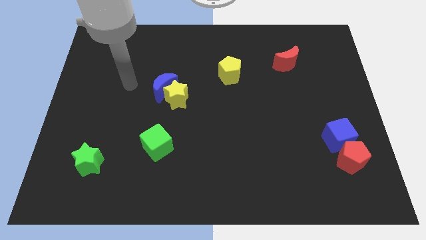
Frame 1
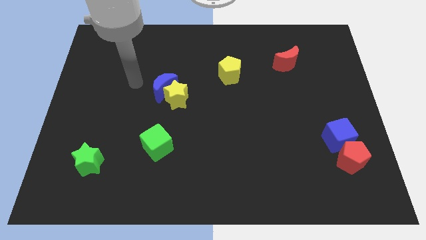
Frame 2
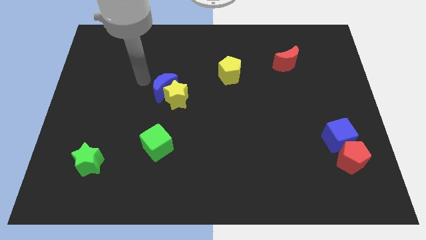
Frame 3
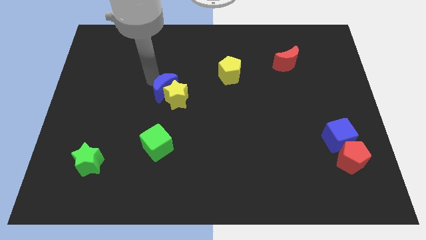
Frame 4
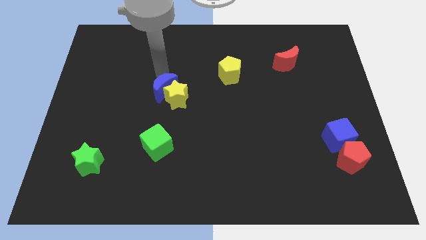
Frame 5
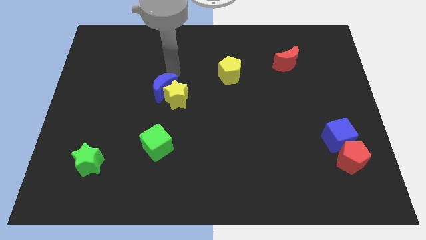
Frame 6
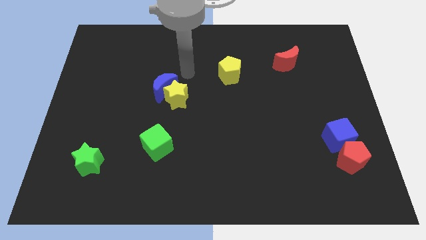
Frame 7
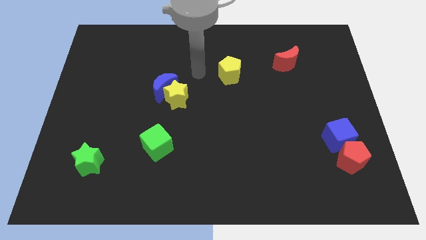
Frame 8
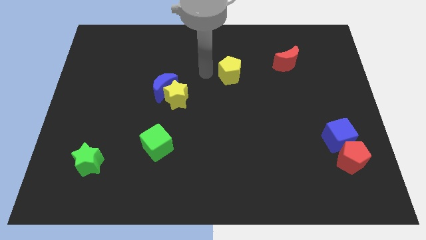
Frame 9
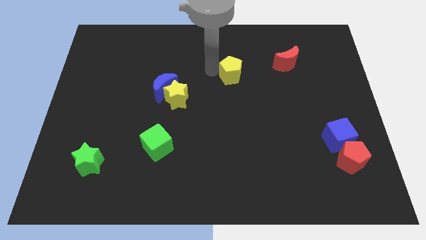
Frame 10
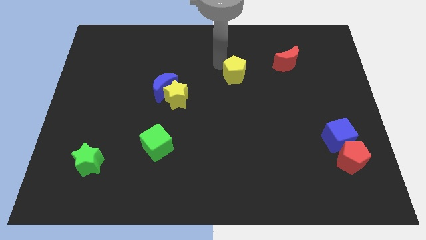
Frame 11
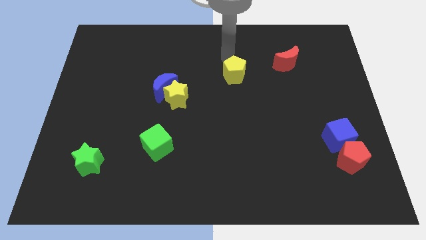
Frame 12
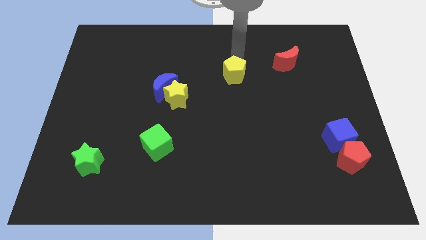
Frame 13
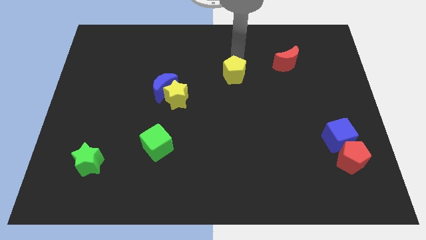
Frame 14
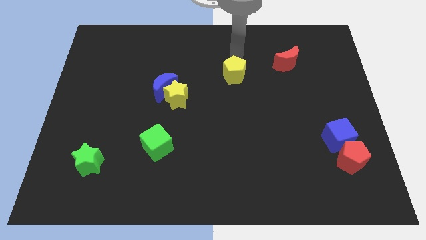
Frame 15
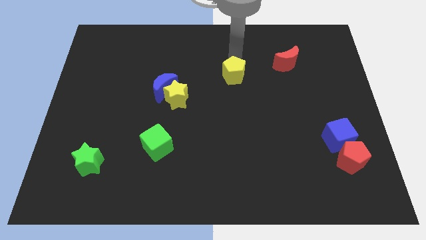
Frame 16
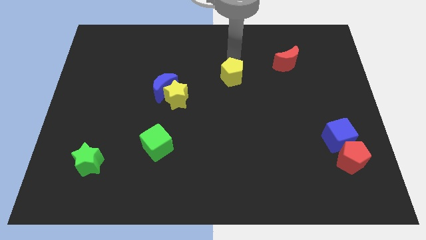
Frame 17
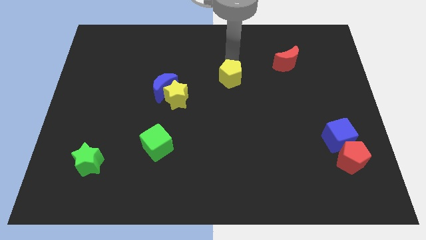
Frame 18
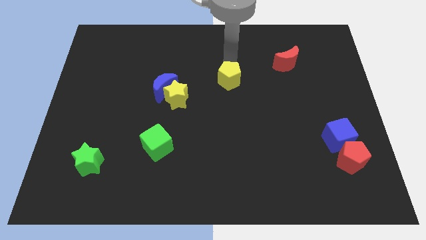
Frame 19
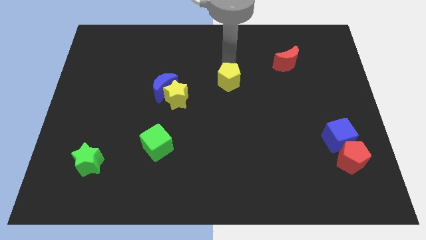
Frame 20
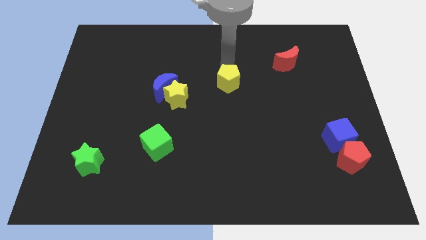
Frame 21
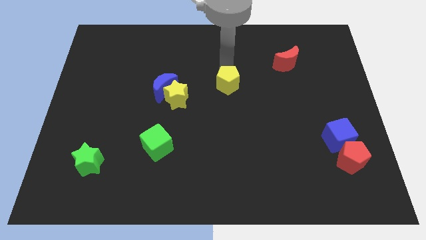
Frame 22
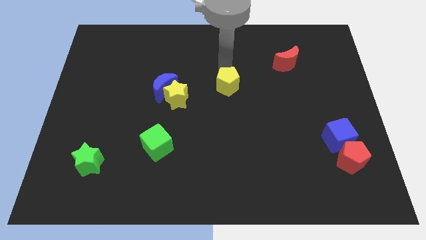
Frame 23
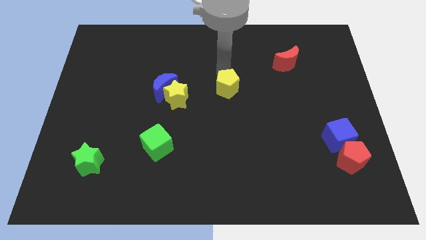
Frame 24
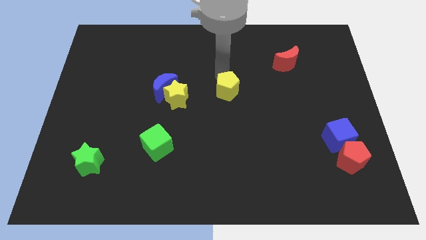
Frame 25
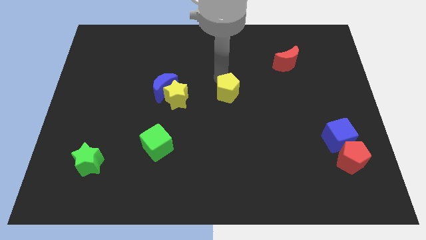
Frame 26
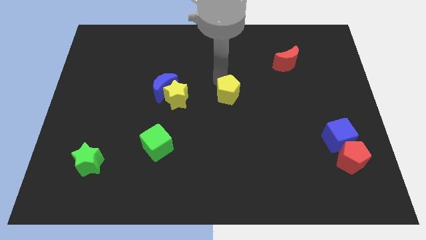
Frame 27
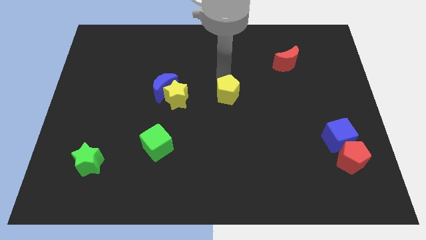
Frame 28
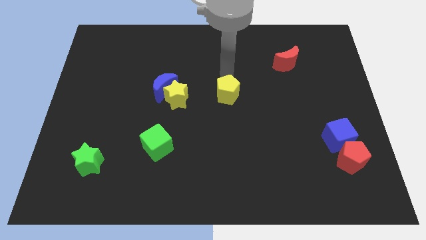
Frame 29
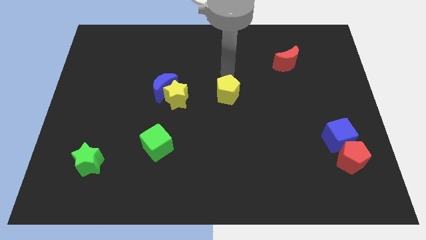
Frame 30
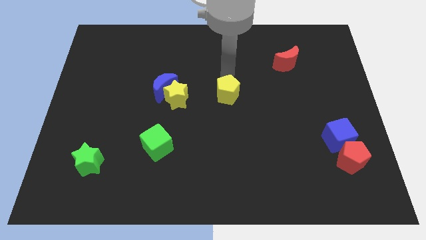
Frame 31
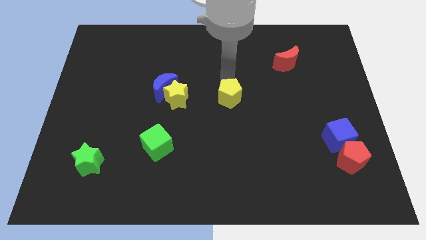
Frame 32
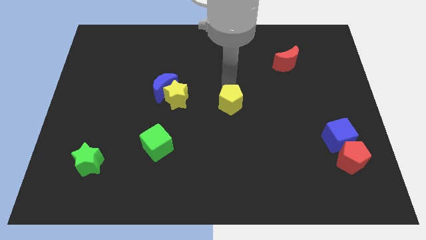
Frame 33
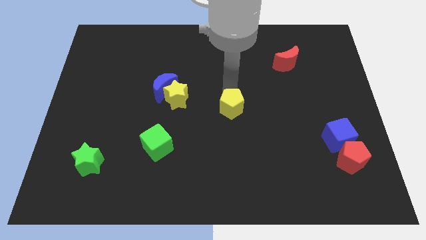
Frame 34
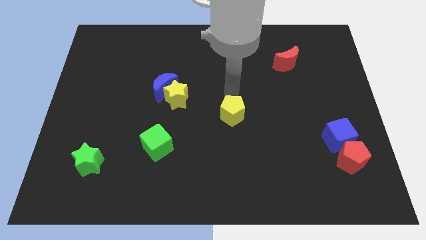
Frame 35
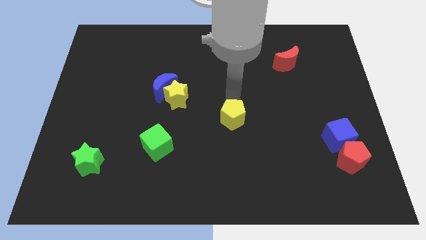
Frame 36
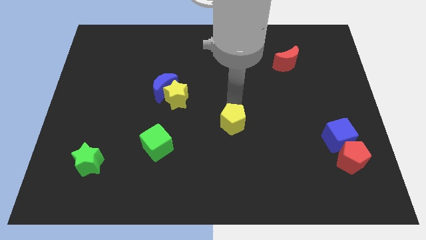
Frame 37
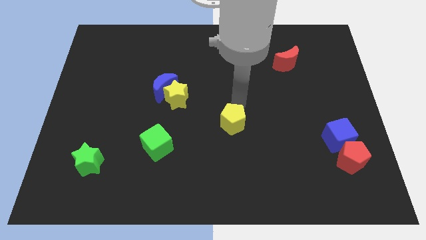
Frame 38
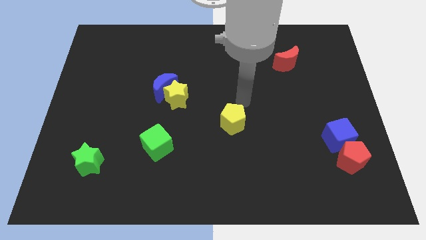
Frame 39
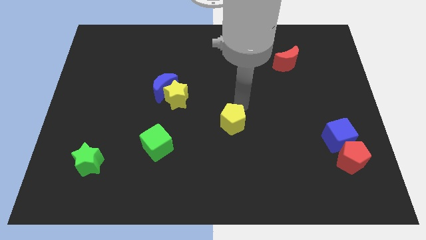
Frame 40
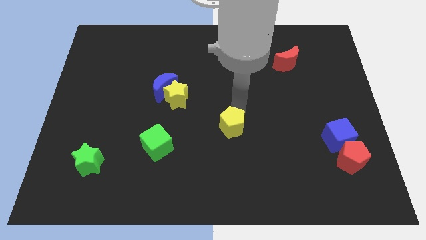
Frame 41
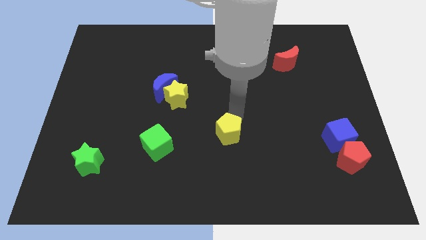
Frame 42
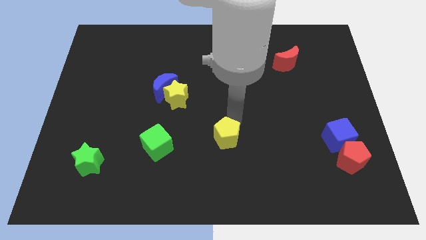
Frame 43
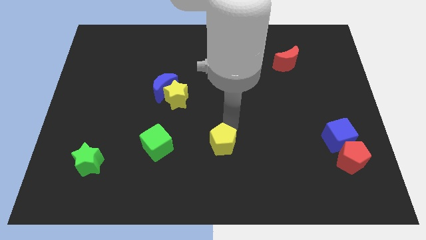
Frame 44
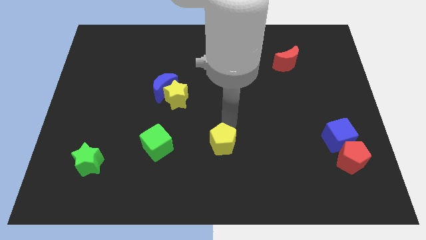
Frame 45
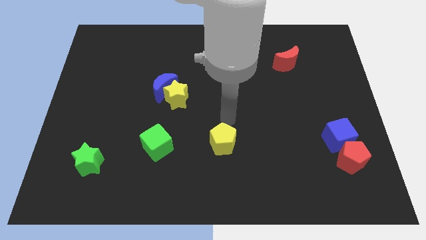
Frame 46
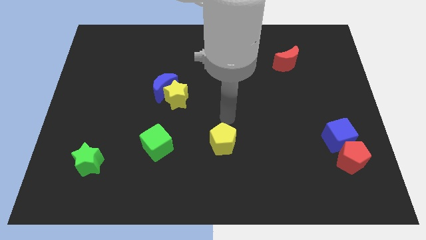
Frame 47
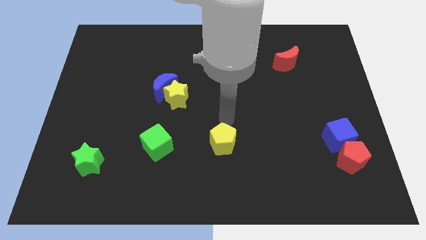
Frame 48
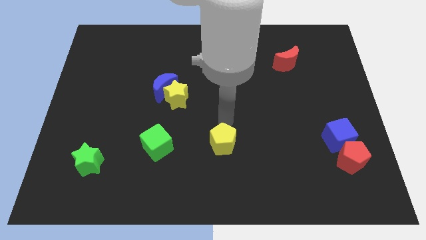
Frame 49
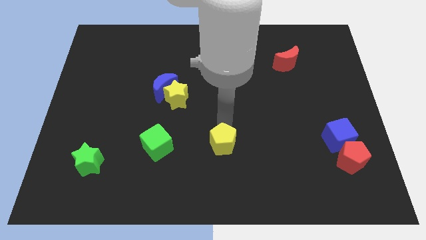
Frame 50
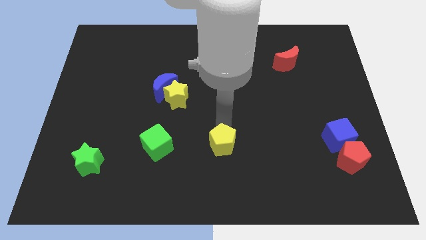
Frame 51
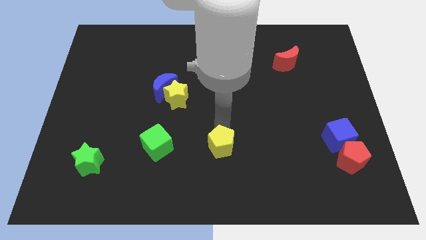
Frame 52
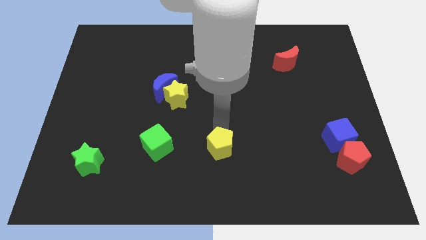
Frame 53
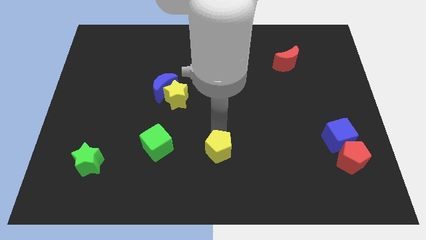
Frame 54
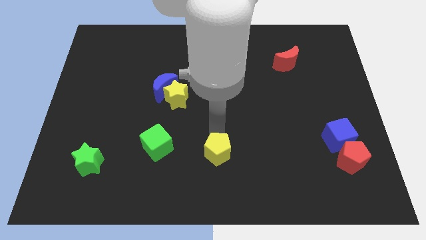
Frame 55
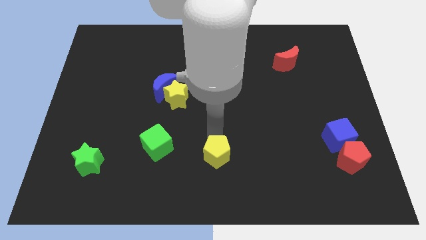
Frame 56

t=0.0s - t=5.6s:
move the yellow pentagon to the bottom
